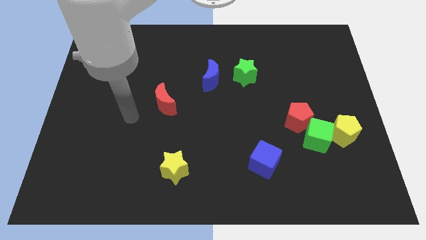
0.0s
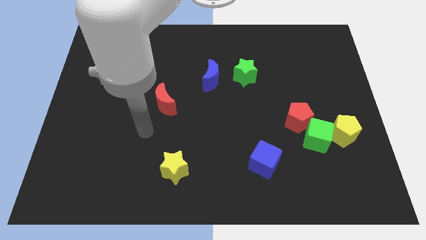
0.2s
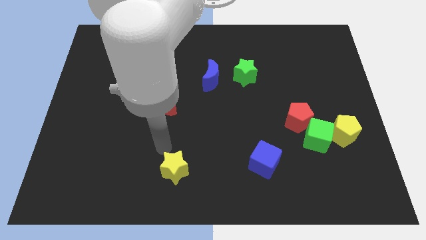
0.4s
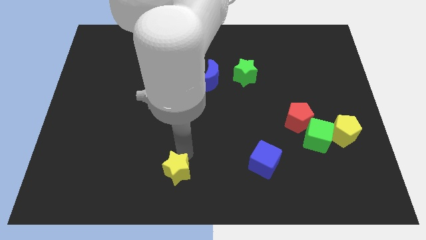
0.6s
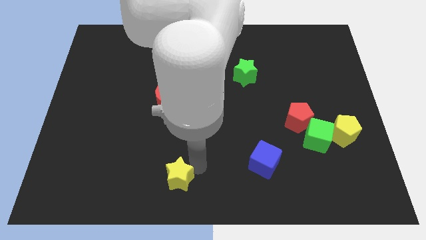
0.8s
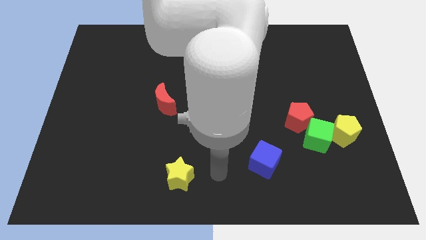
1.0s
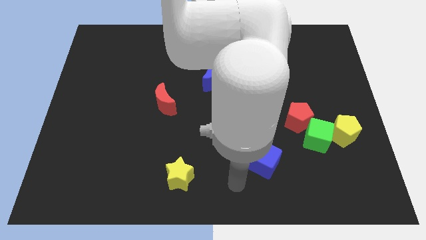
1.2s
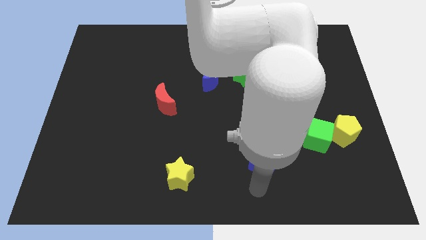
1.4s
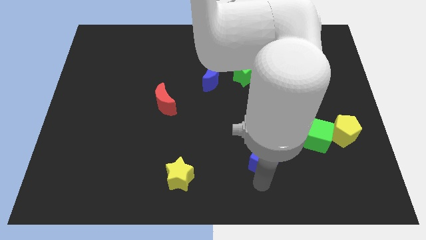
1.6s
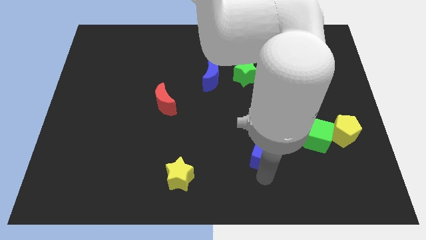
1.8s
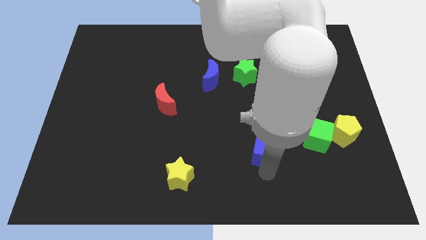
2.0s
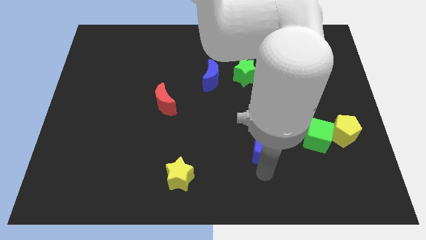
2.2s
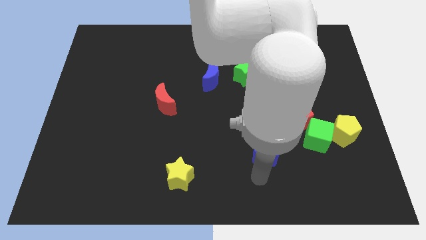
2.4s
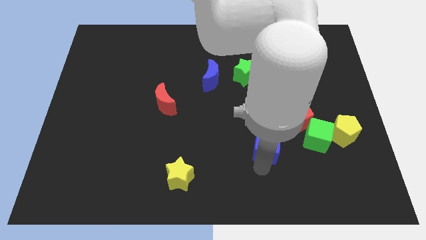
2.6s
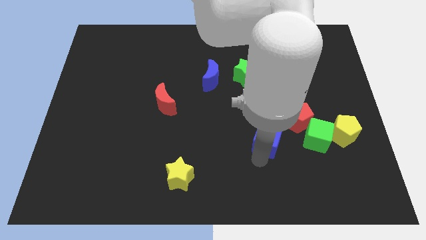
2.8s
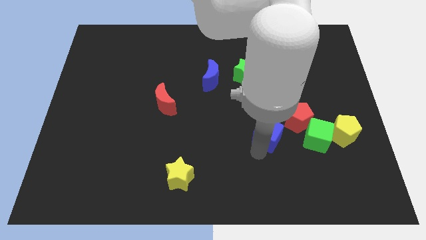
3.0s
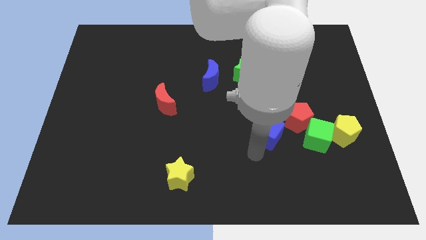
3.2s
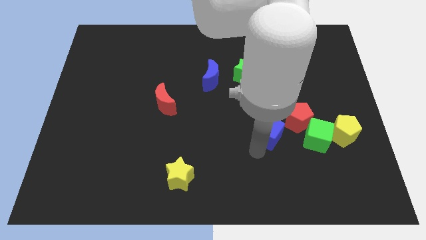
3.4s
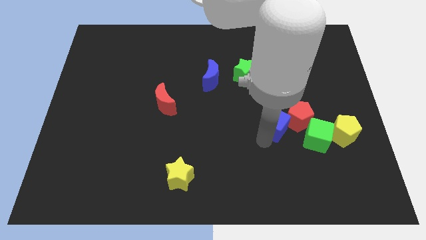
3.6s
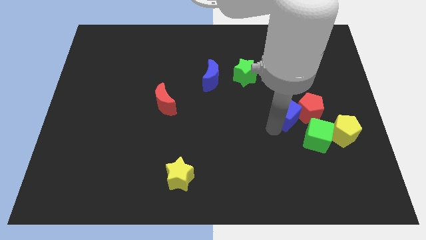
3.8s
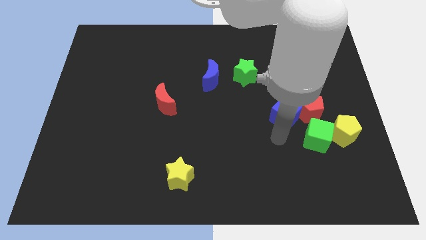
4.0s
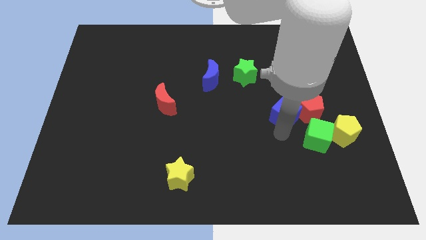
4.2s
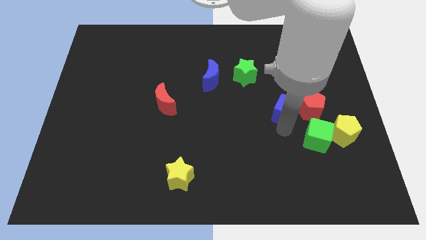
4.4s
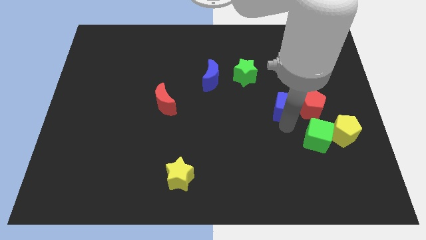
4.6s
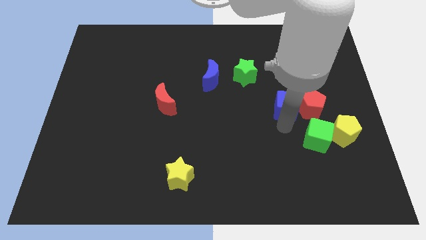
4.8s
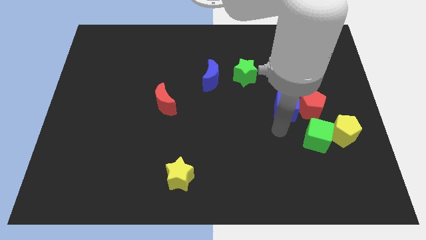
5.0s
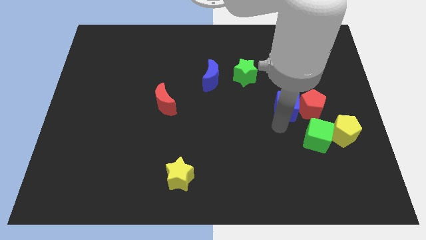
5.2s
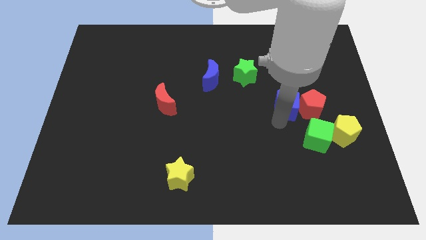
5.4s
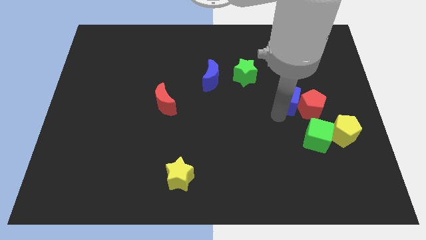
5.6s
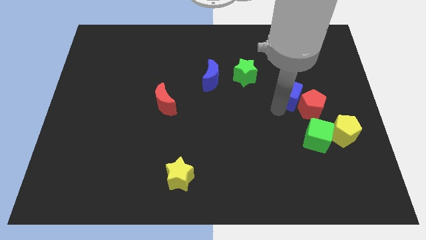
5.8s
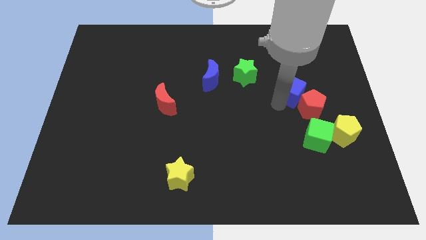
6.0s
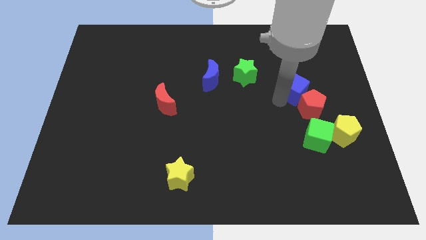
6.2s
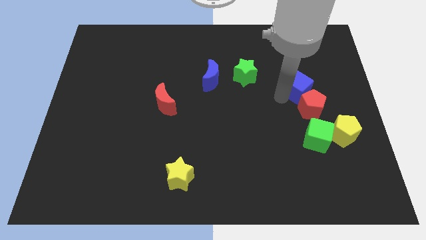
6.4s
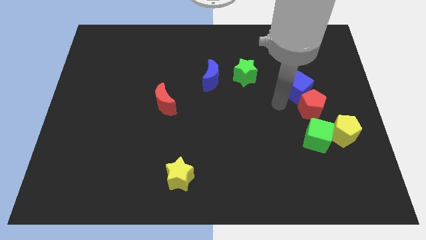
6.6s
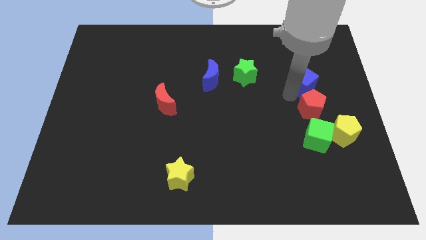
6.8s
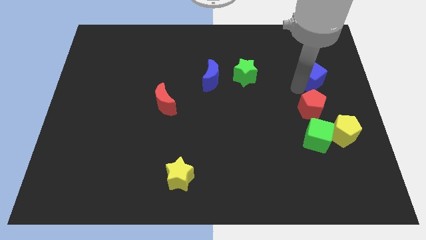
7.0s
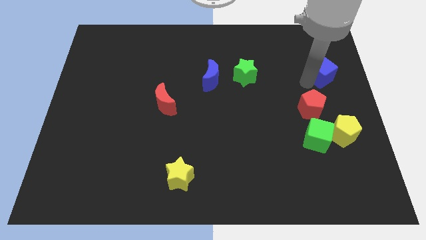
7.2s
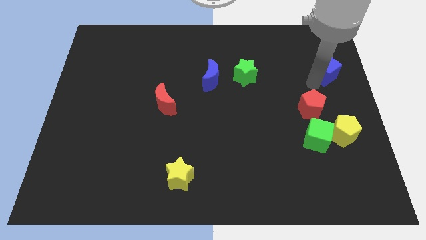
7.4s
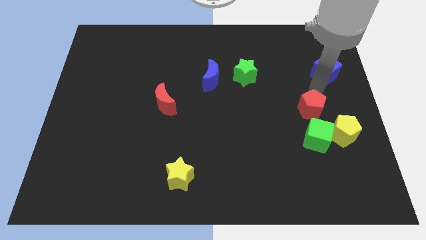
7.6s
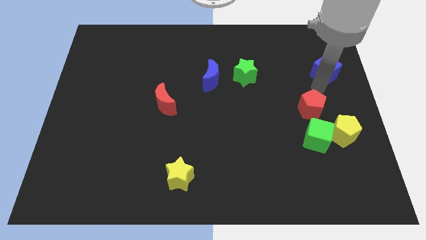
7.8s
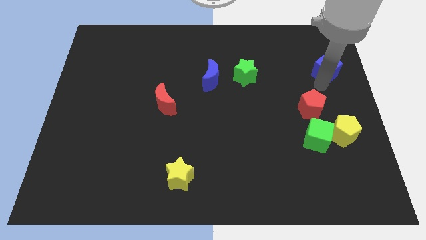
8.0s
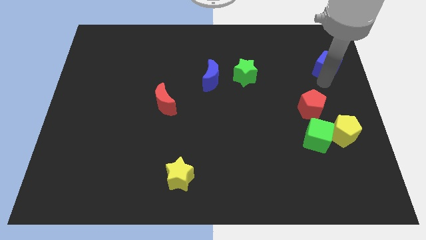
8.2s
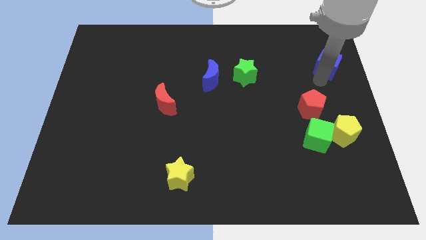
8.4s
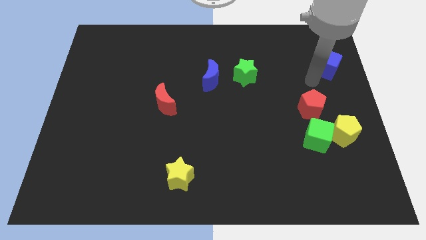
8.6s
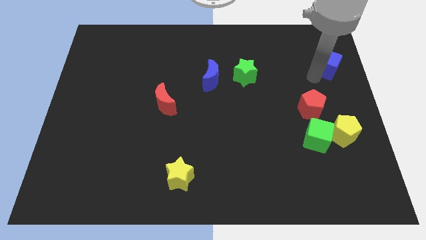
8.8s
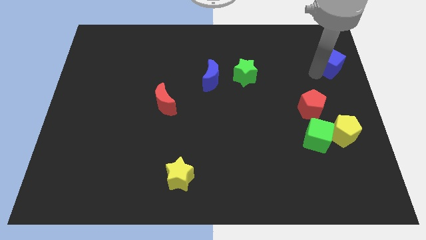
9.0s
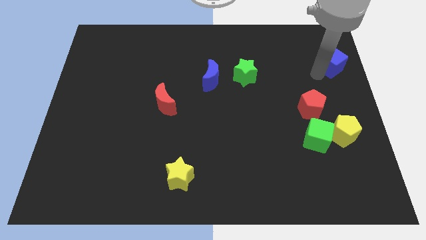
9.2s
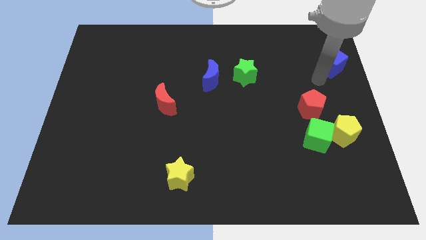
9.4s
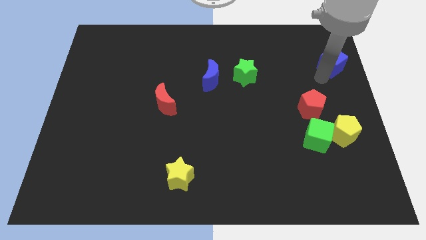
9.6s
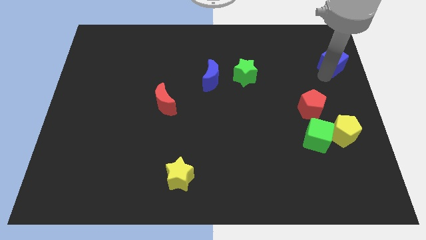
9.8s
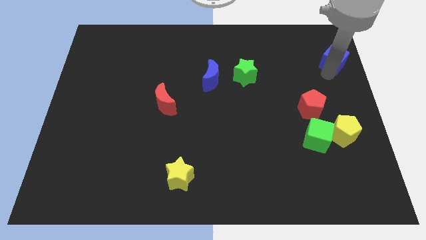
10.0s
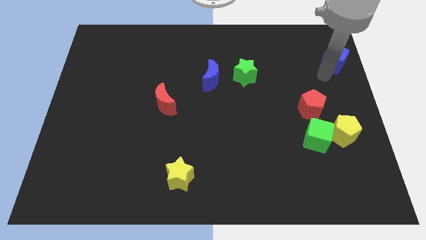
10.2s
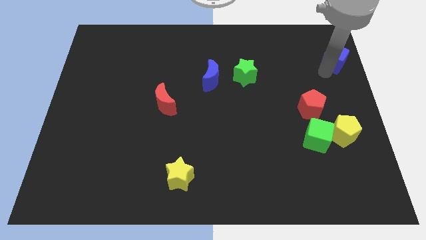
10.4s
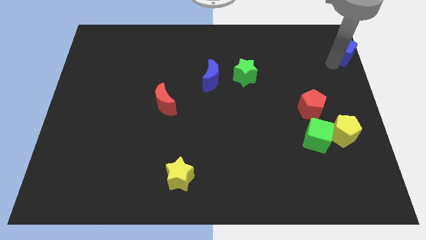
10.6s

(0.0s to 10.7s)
move the blue cube to the top right

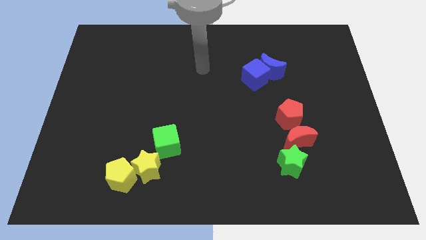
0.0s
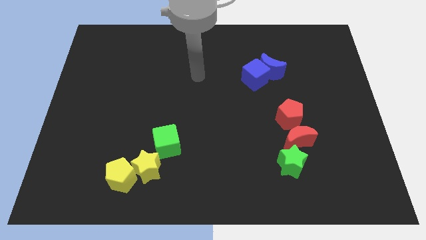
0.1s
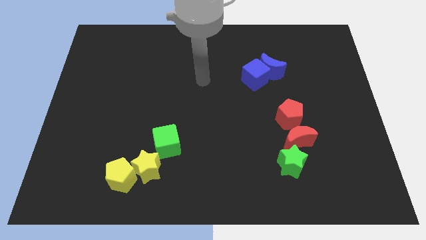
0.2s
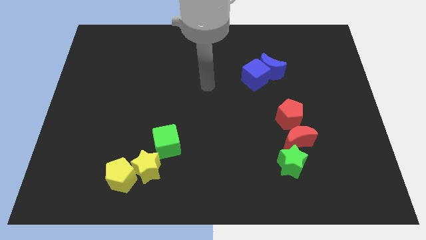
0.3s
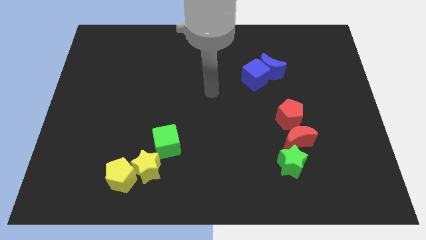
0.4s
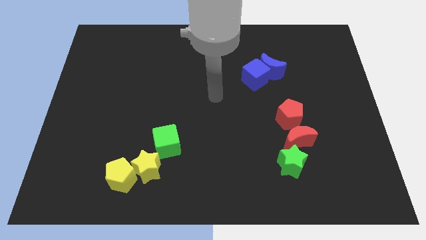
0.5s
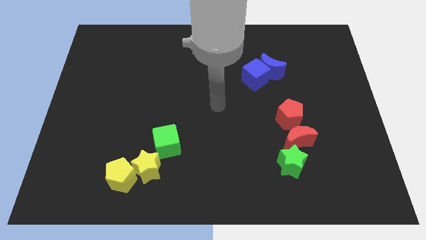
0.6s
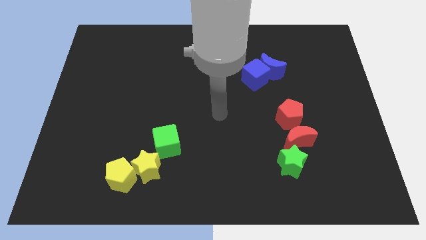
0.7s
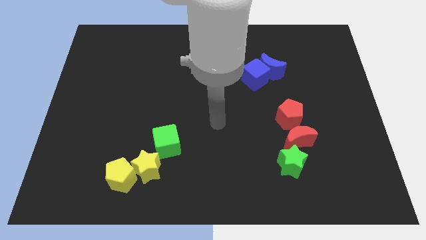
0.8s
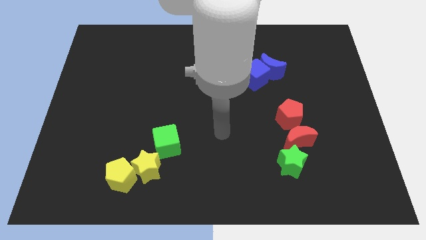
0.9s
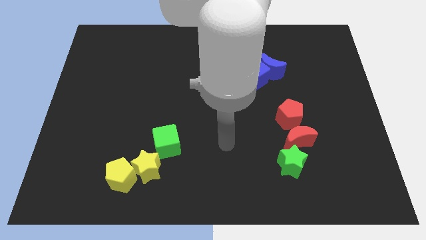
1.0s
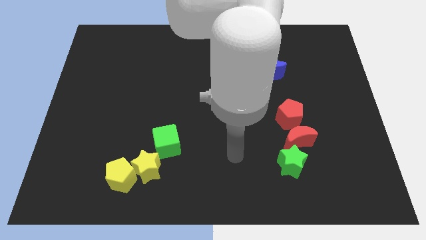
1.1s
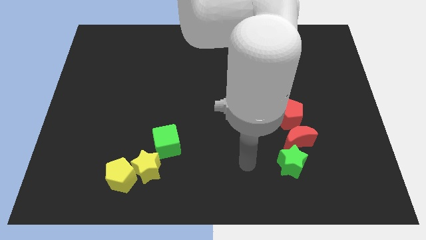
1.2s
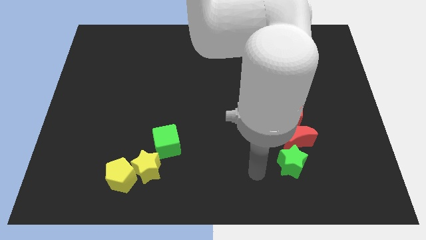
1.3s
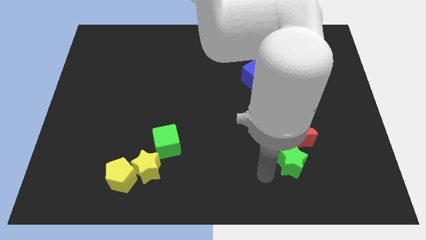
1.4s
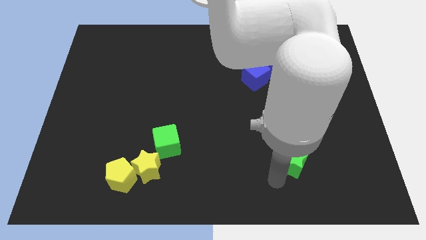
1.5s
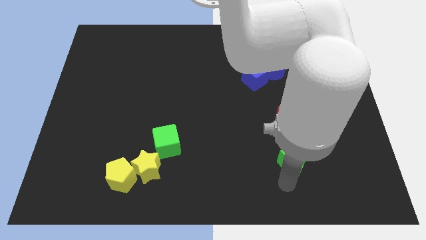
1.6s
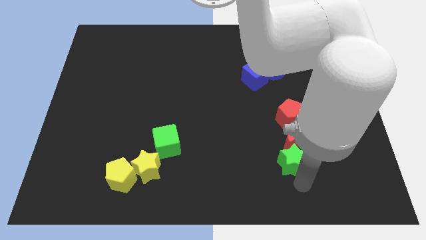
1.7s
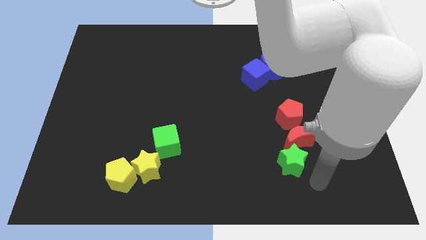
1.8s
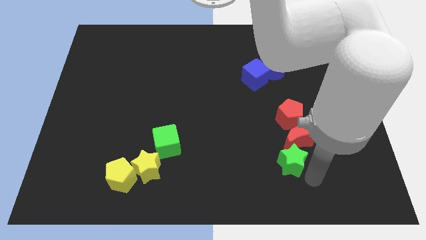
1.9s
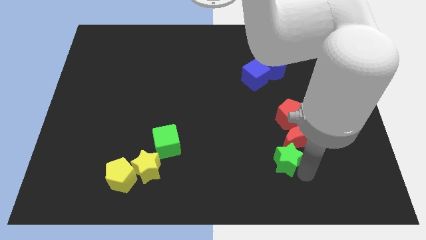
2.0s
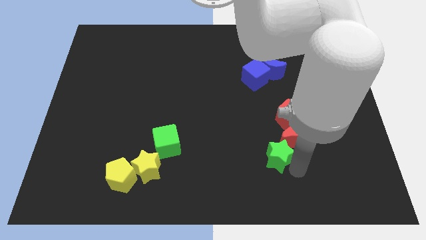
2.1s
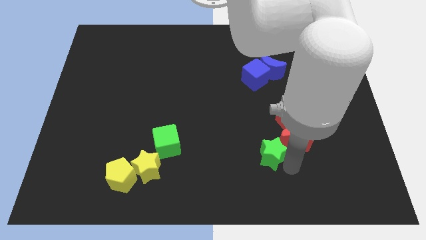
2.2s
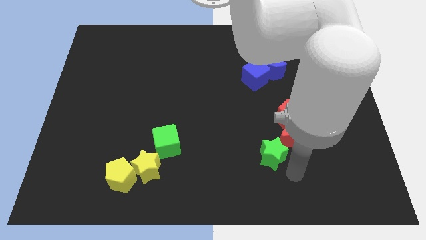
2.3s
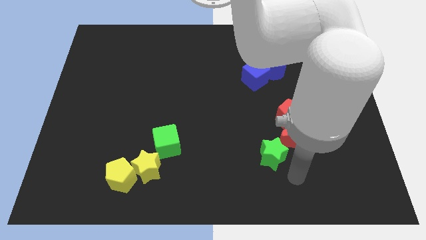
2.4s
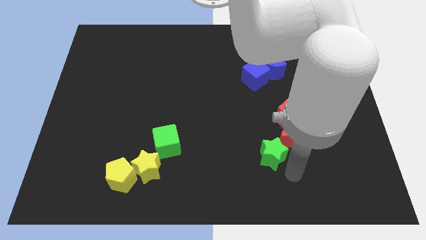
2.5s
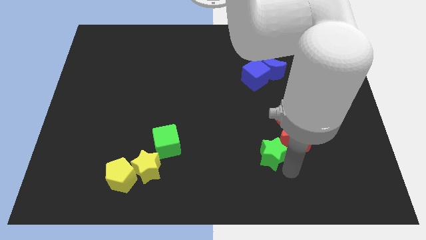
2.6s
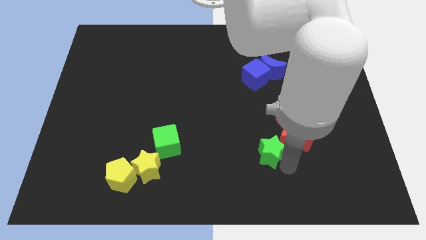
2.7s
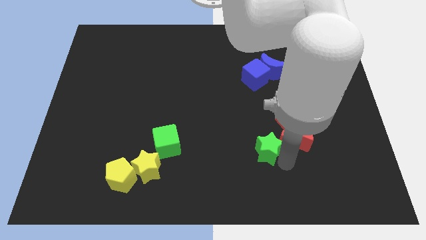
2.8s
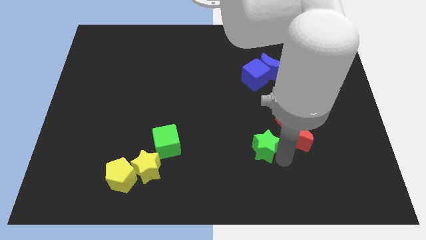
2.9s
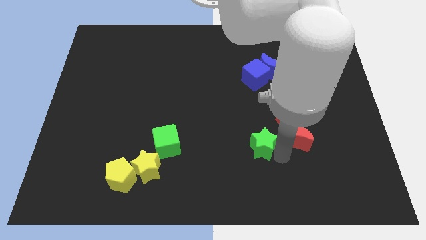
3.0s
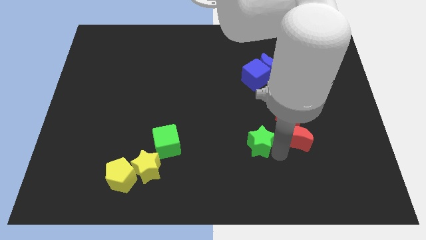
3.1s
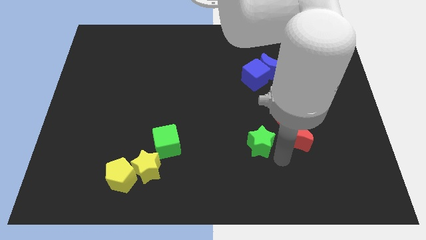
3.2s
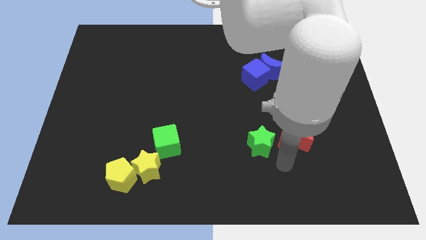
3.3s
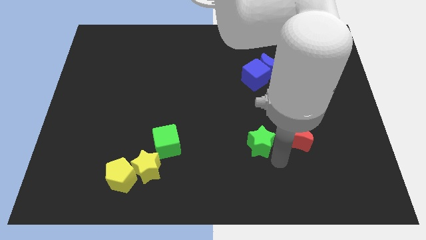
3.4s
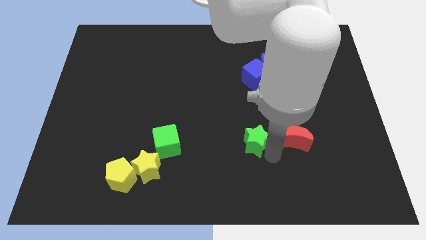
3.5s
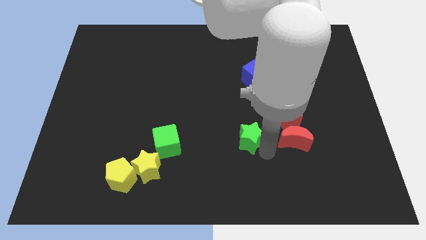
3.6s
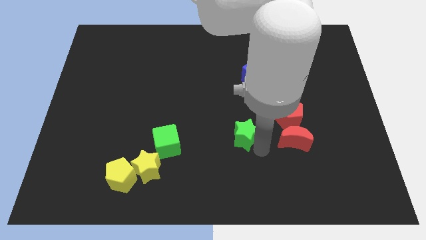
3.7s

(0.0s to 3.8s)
push the green star to the center
